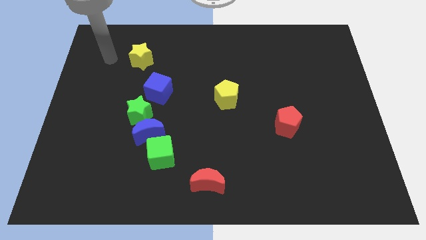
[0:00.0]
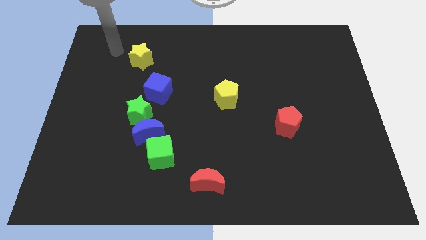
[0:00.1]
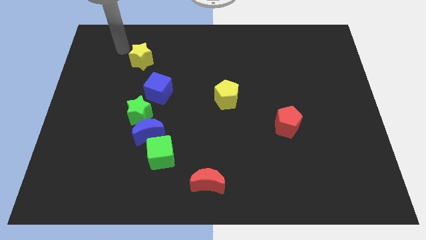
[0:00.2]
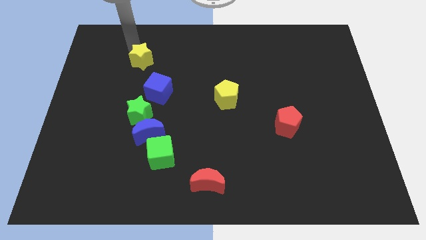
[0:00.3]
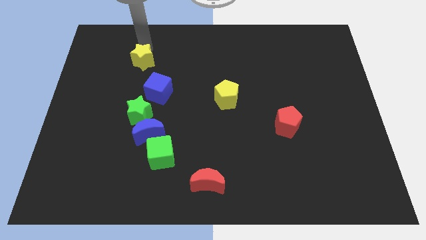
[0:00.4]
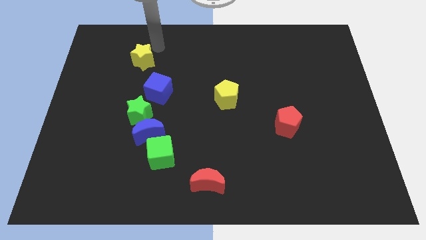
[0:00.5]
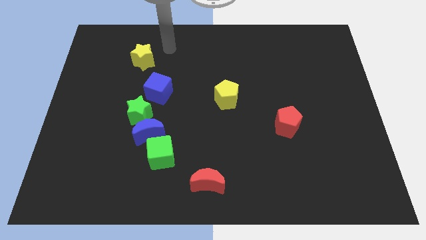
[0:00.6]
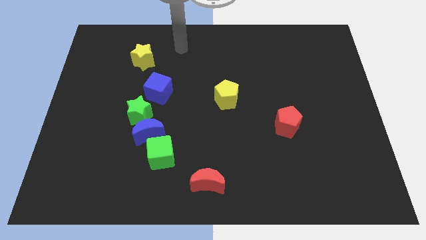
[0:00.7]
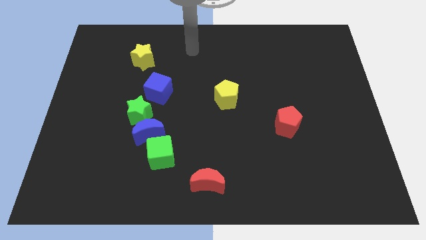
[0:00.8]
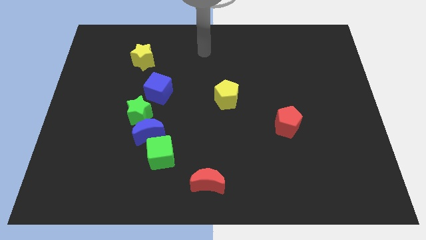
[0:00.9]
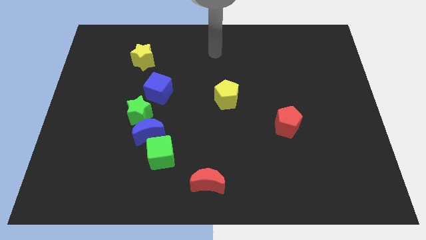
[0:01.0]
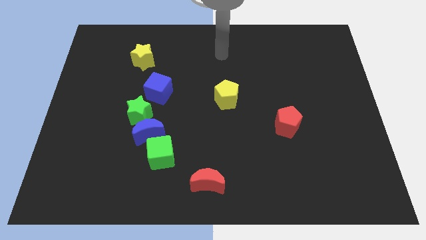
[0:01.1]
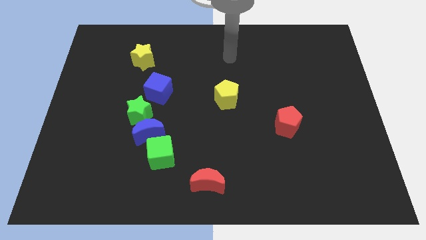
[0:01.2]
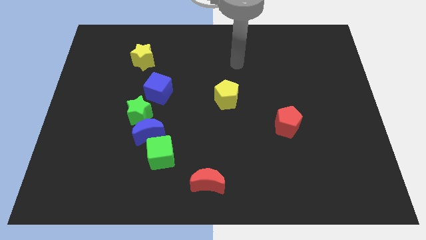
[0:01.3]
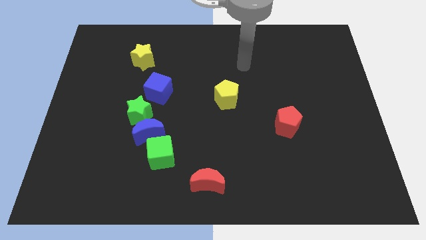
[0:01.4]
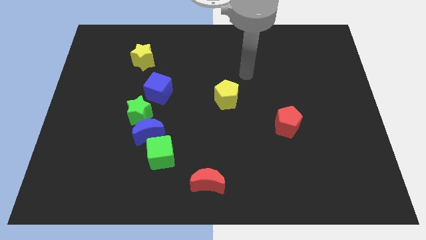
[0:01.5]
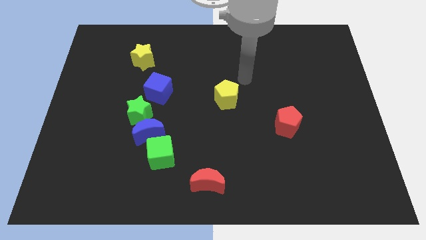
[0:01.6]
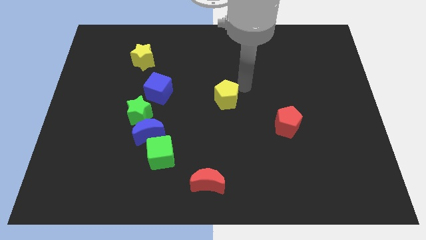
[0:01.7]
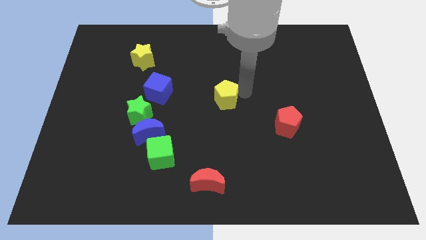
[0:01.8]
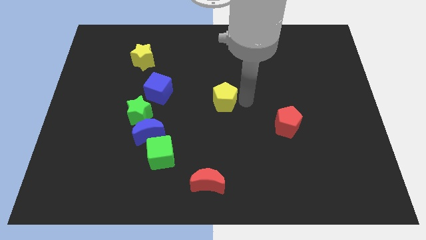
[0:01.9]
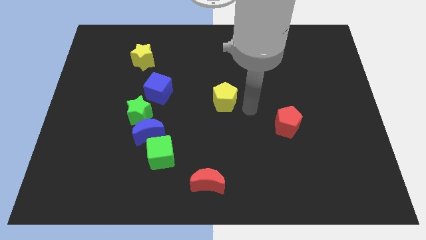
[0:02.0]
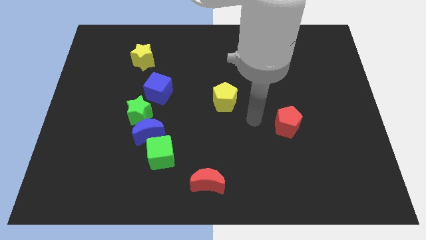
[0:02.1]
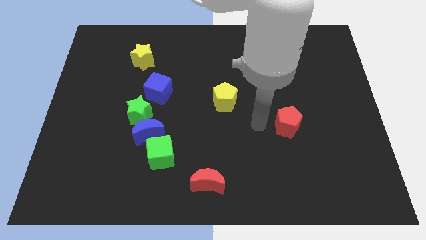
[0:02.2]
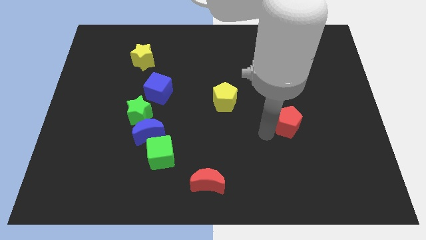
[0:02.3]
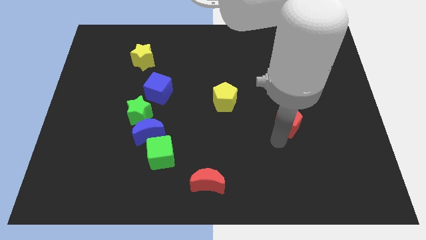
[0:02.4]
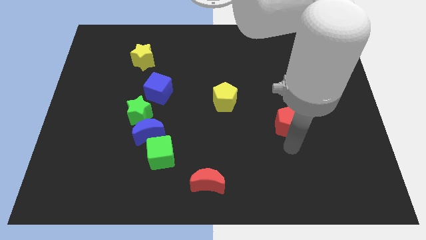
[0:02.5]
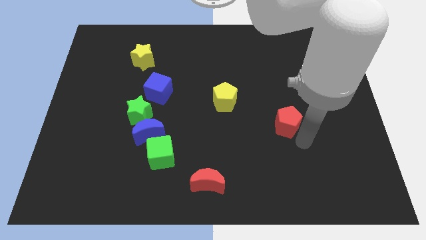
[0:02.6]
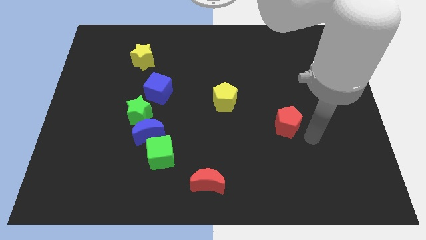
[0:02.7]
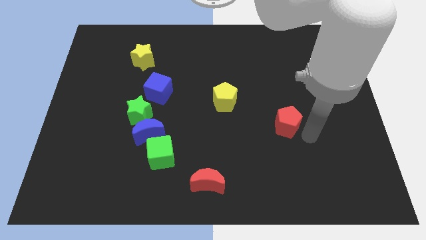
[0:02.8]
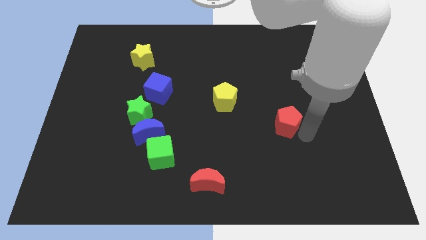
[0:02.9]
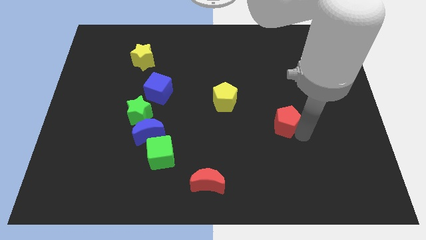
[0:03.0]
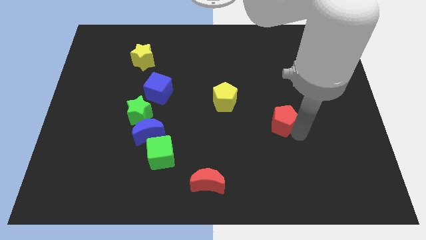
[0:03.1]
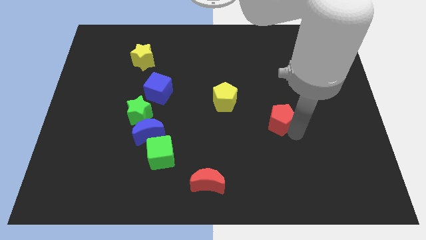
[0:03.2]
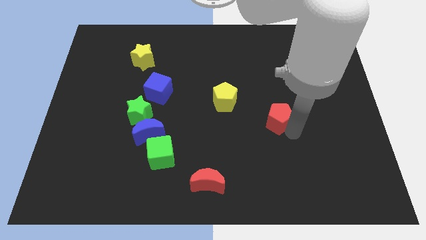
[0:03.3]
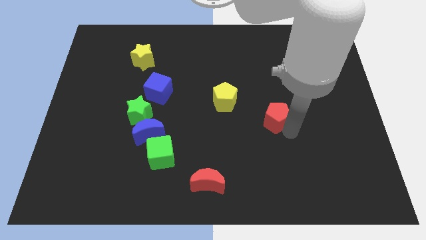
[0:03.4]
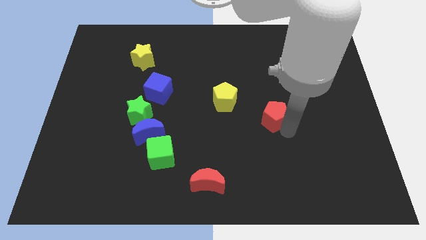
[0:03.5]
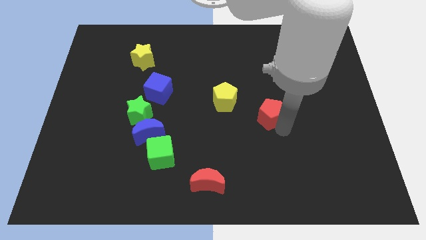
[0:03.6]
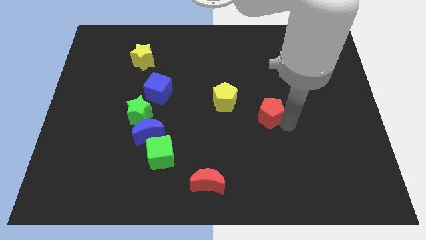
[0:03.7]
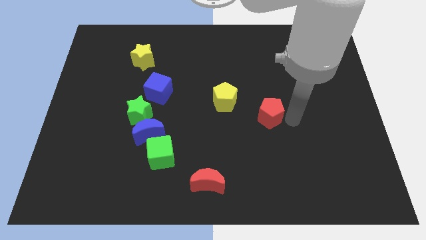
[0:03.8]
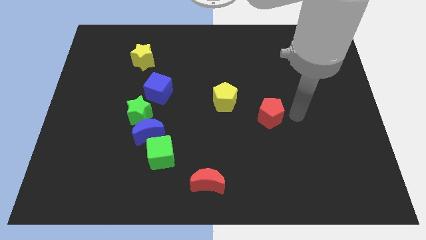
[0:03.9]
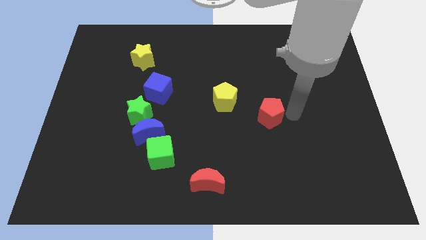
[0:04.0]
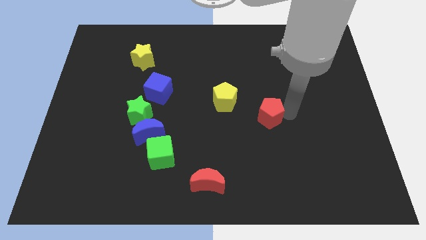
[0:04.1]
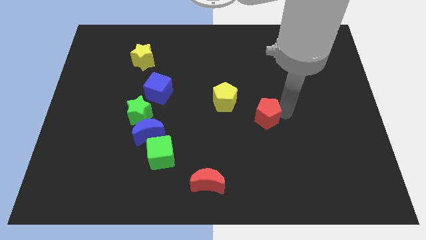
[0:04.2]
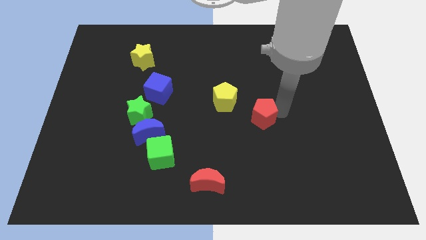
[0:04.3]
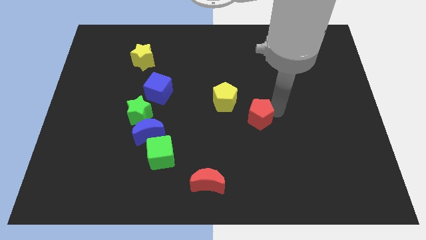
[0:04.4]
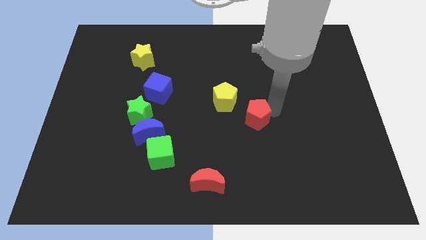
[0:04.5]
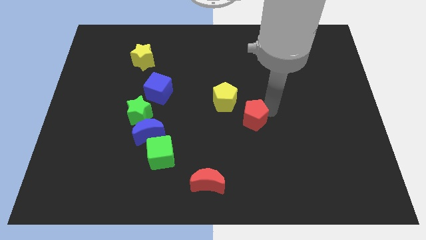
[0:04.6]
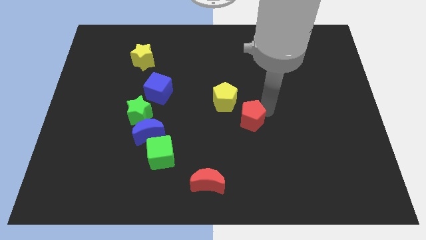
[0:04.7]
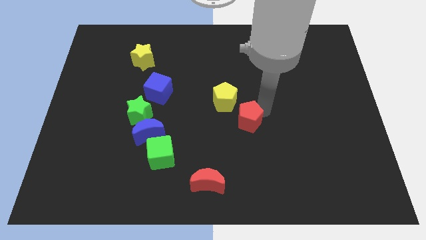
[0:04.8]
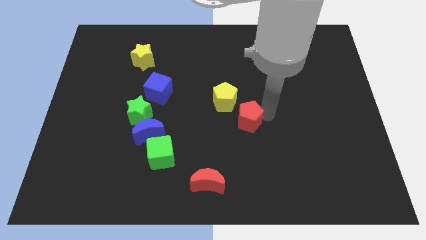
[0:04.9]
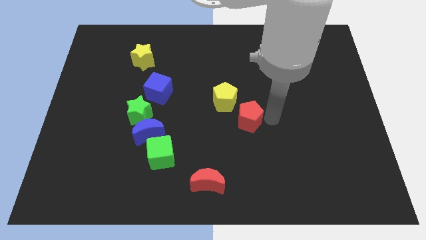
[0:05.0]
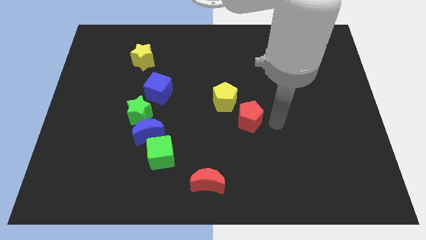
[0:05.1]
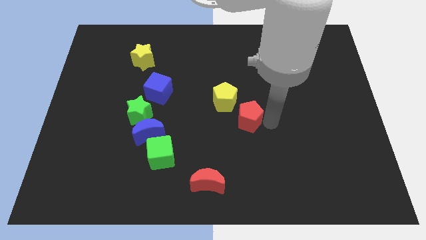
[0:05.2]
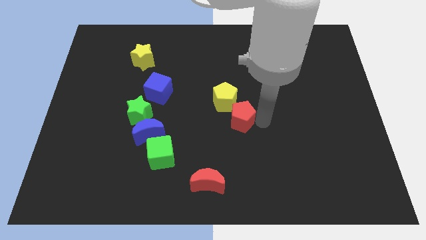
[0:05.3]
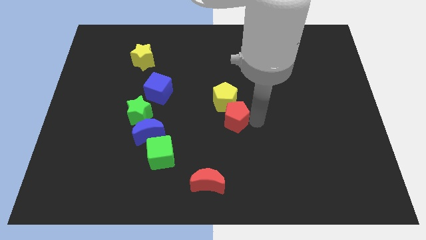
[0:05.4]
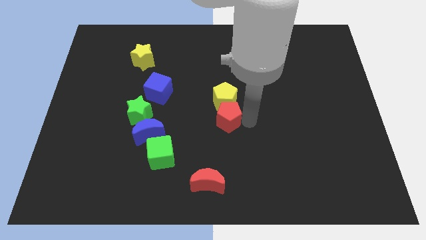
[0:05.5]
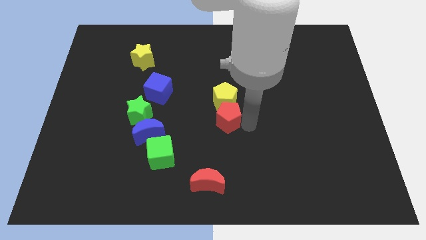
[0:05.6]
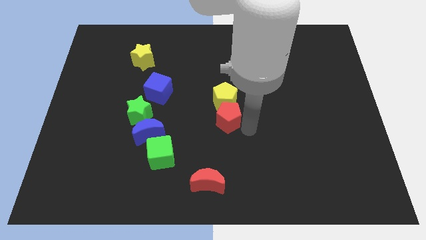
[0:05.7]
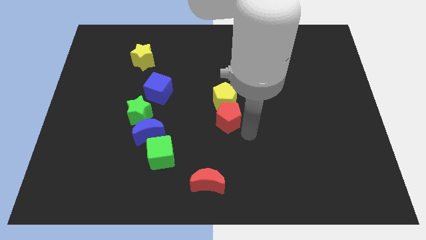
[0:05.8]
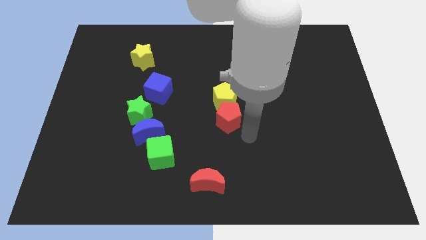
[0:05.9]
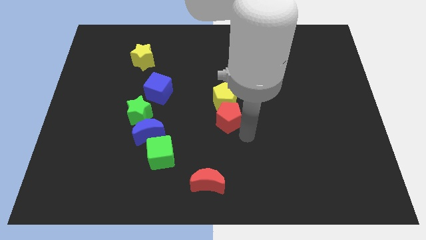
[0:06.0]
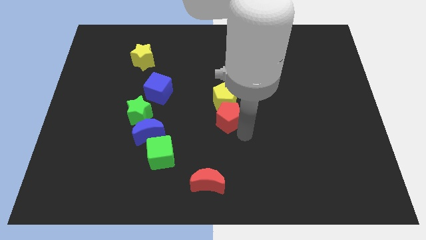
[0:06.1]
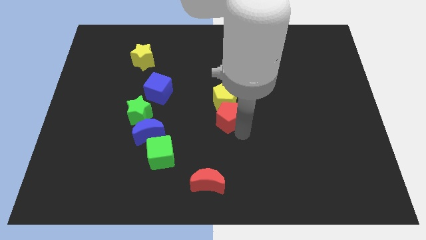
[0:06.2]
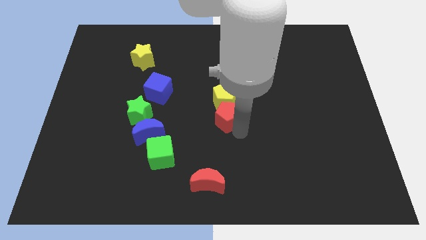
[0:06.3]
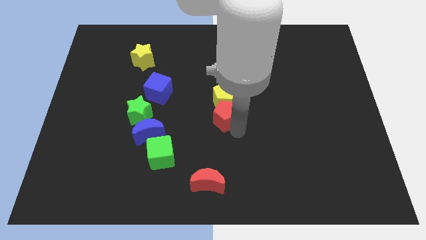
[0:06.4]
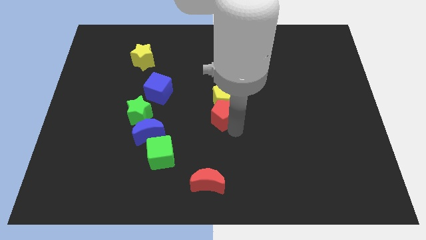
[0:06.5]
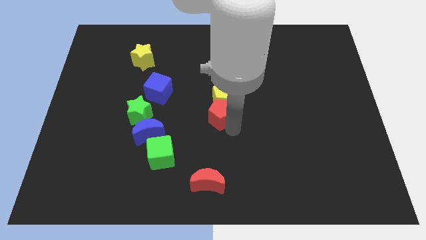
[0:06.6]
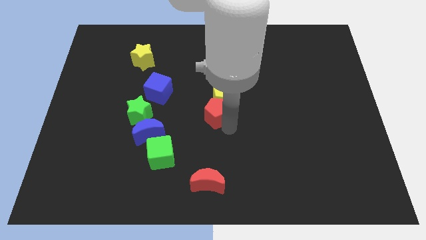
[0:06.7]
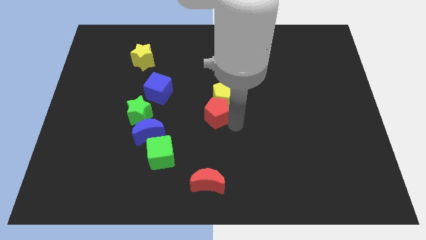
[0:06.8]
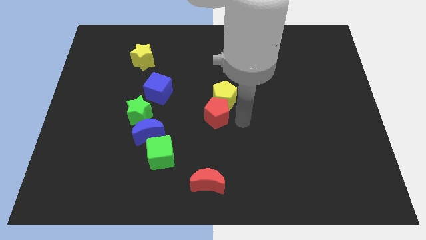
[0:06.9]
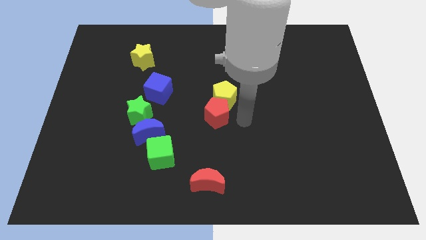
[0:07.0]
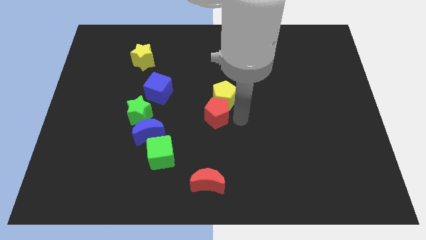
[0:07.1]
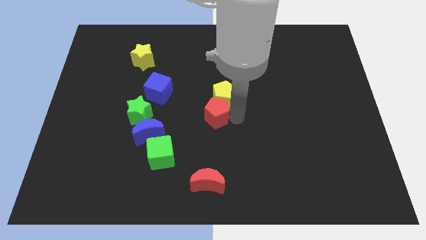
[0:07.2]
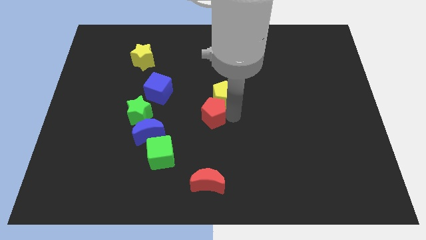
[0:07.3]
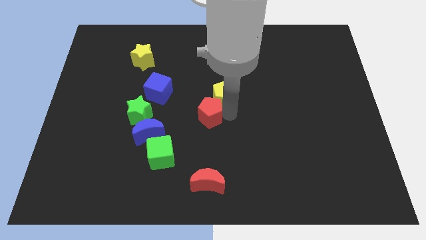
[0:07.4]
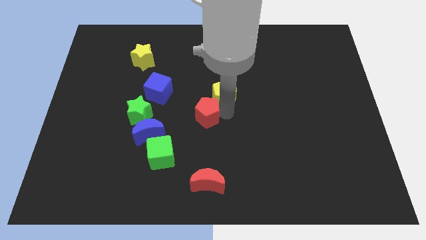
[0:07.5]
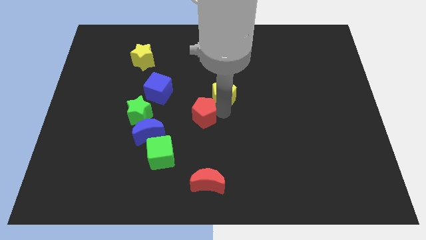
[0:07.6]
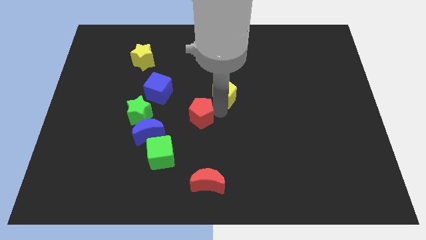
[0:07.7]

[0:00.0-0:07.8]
slide the red pentagon to the bottom right side of the blue cube
